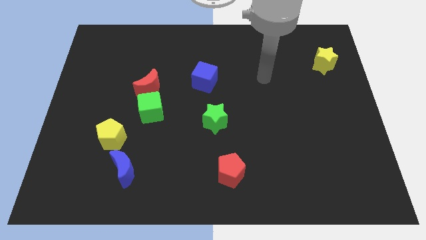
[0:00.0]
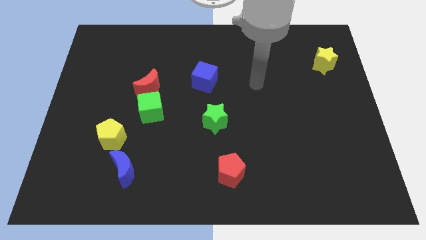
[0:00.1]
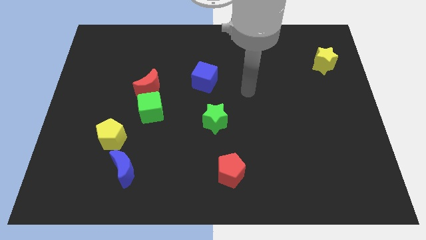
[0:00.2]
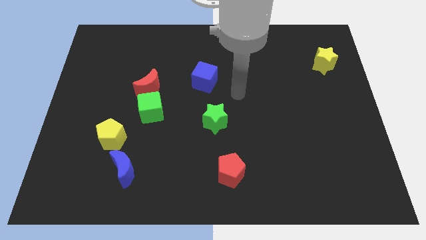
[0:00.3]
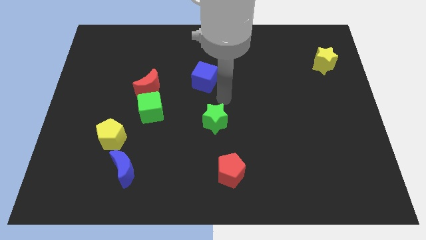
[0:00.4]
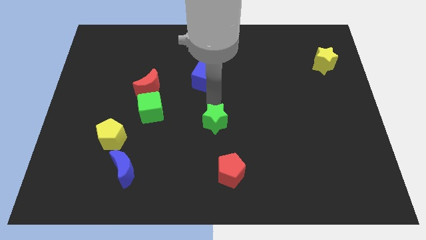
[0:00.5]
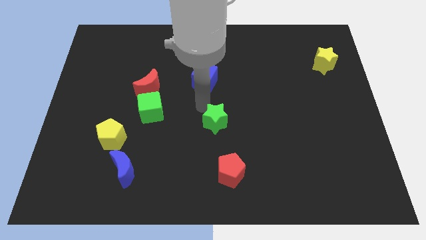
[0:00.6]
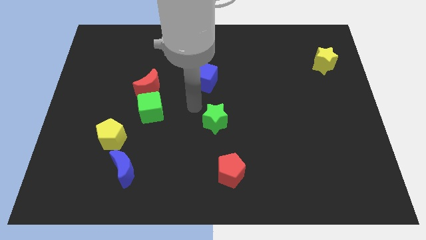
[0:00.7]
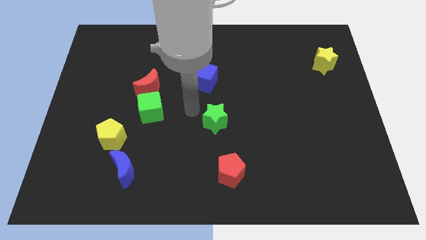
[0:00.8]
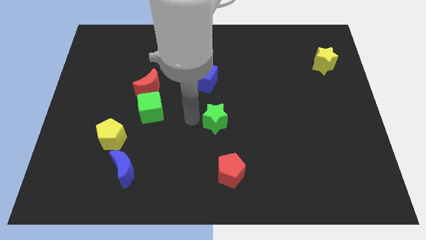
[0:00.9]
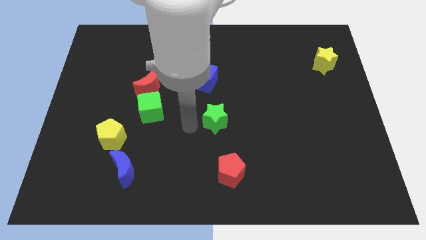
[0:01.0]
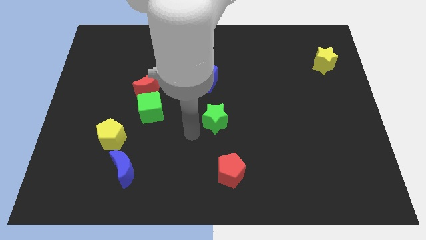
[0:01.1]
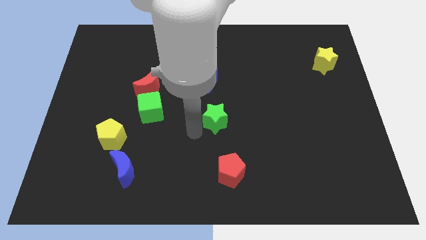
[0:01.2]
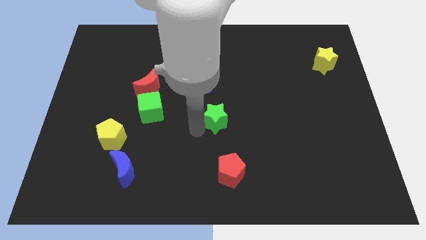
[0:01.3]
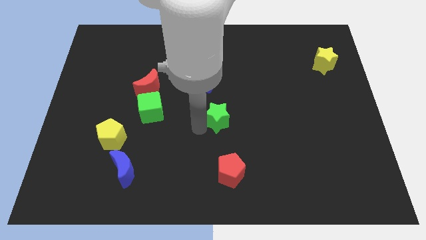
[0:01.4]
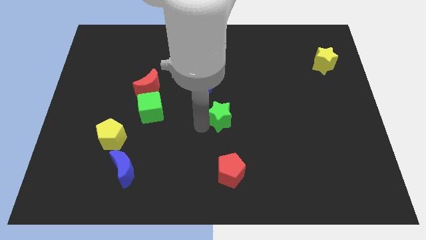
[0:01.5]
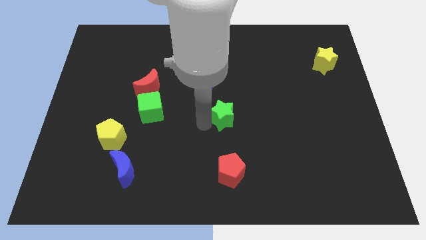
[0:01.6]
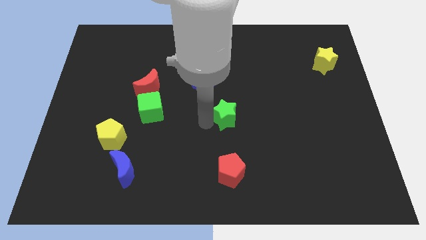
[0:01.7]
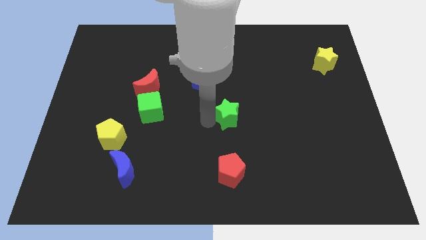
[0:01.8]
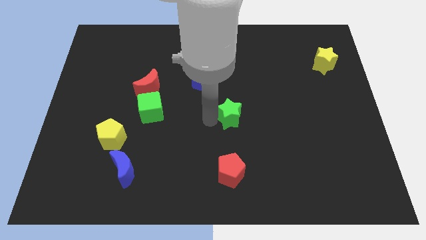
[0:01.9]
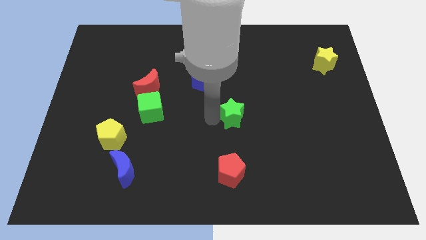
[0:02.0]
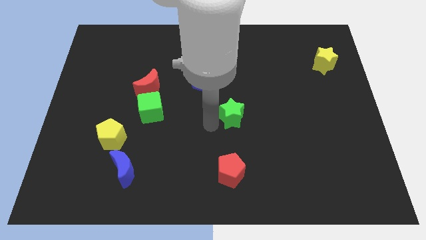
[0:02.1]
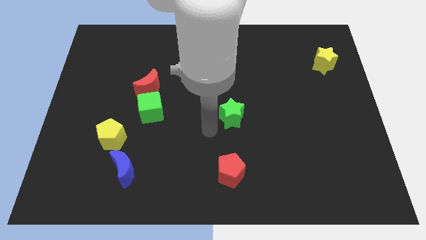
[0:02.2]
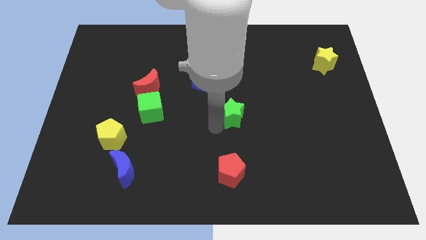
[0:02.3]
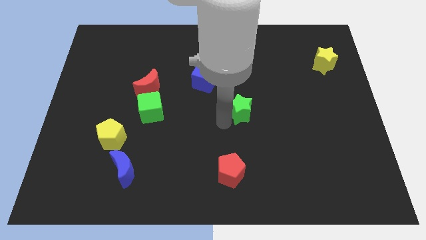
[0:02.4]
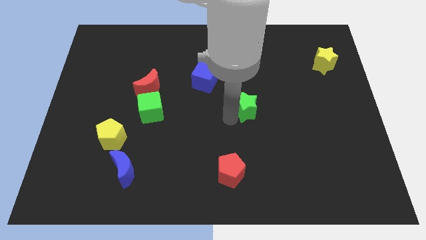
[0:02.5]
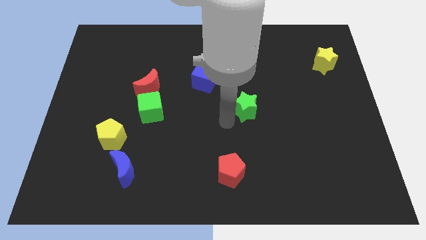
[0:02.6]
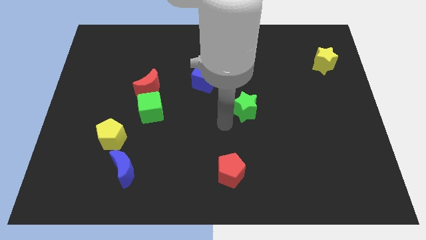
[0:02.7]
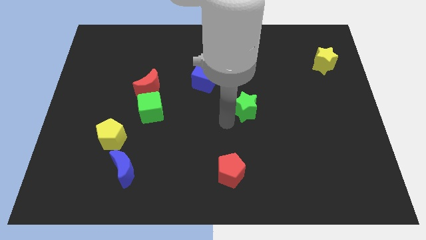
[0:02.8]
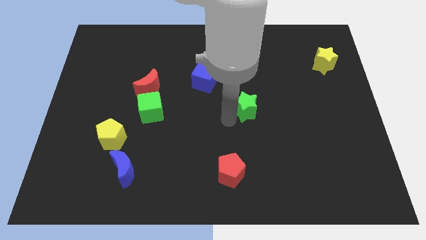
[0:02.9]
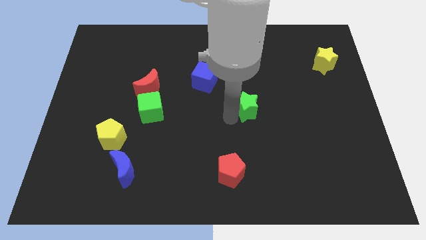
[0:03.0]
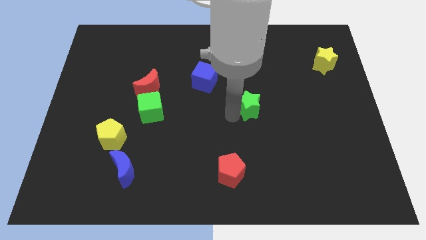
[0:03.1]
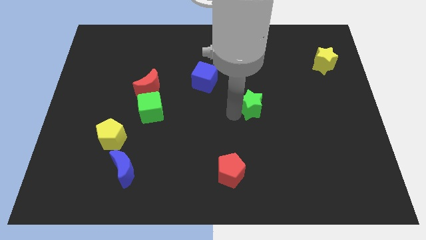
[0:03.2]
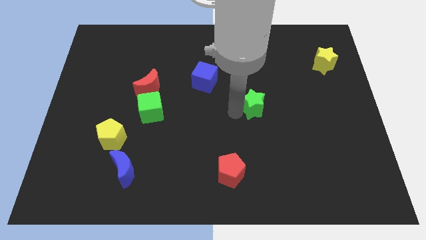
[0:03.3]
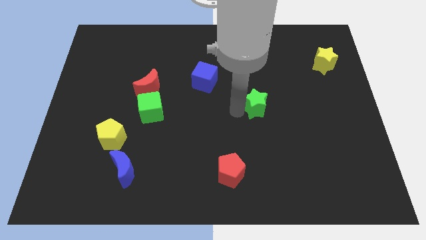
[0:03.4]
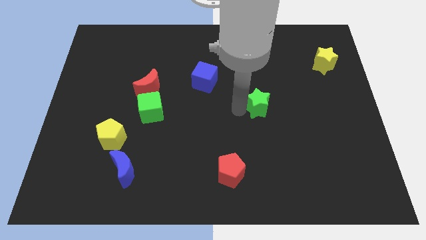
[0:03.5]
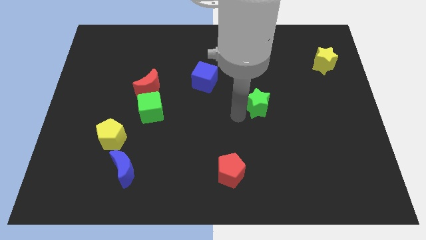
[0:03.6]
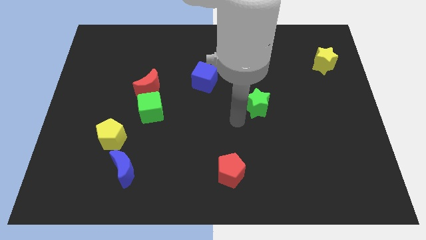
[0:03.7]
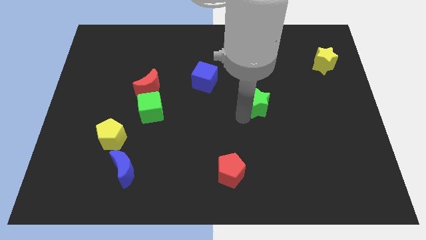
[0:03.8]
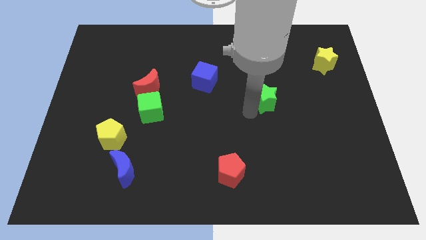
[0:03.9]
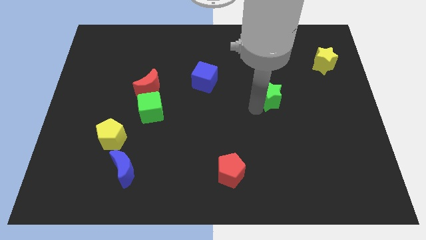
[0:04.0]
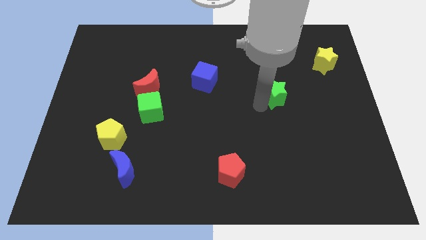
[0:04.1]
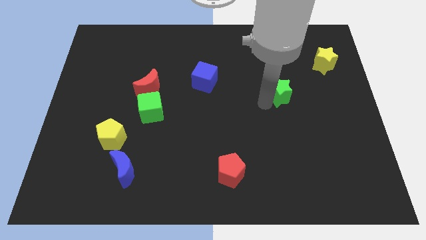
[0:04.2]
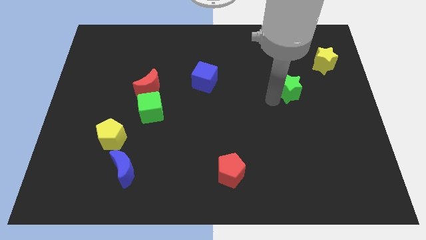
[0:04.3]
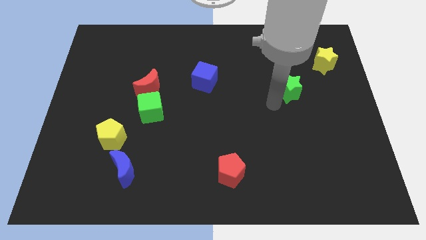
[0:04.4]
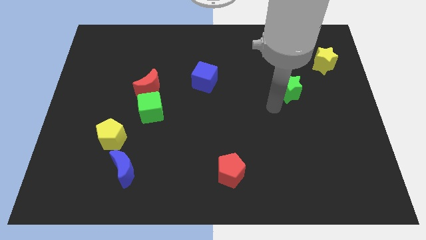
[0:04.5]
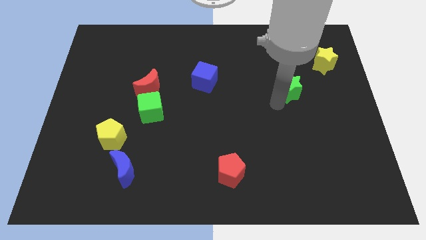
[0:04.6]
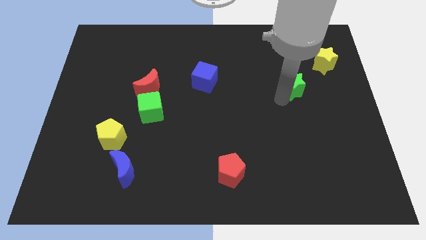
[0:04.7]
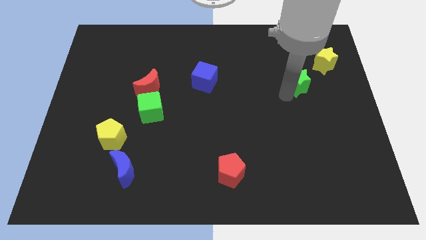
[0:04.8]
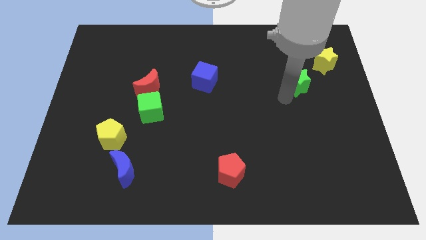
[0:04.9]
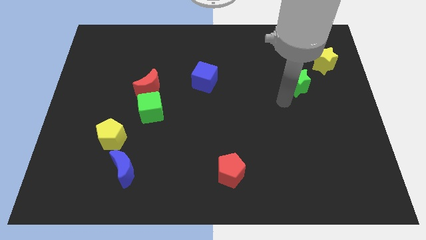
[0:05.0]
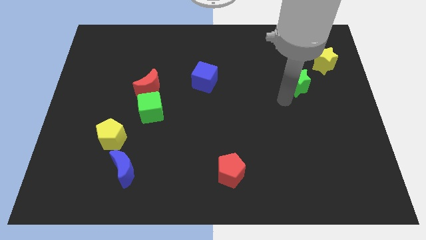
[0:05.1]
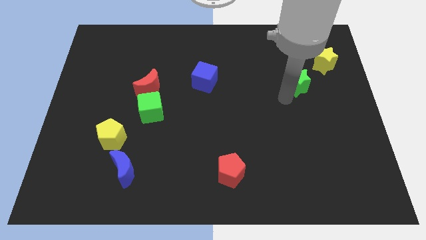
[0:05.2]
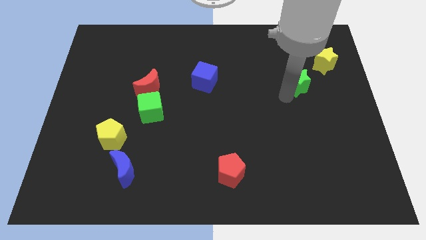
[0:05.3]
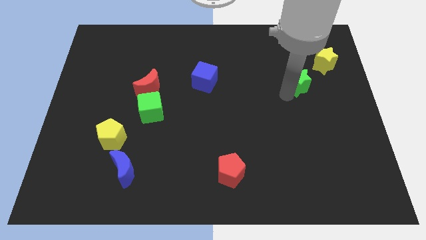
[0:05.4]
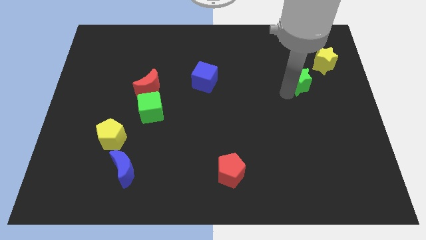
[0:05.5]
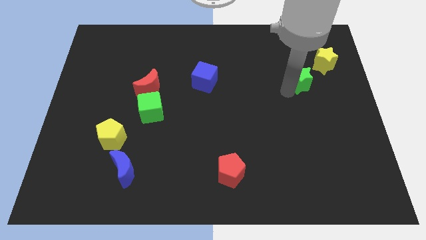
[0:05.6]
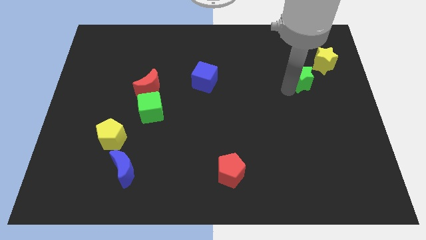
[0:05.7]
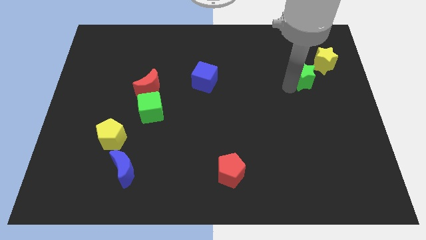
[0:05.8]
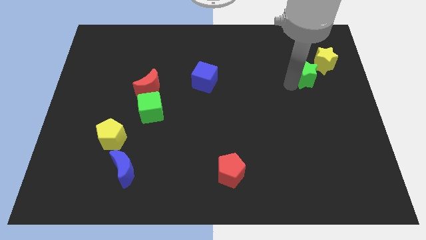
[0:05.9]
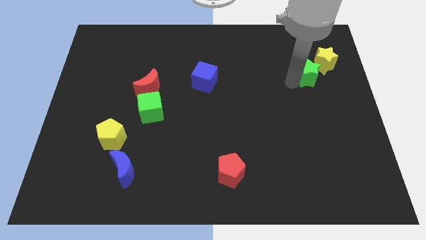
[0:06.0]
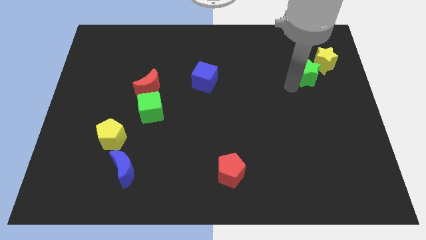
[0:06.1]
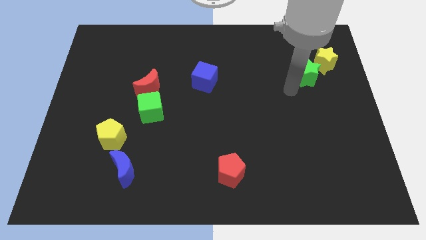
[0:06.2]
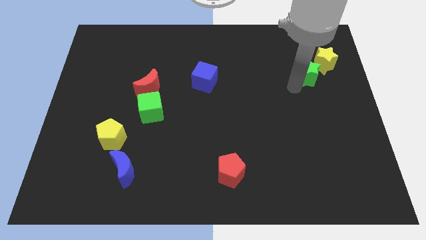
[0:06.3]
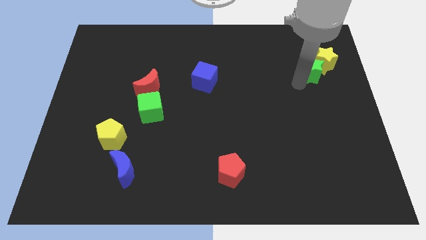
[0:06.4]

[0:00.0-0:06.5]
slide the green star close to the yellow star
